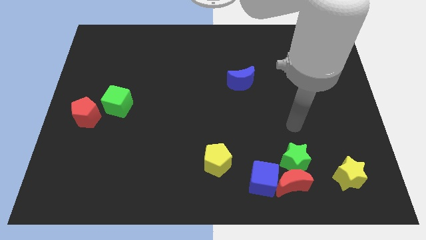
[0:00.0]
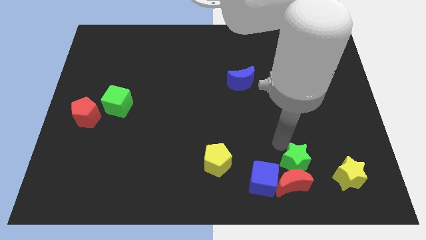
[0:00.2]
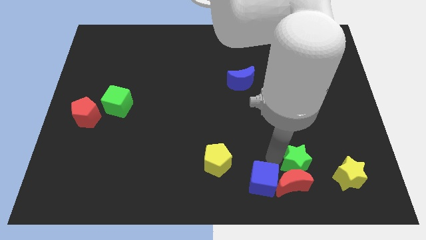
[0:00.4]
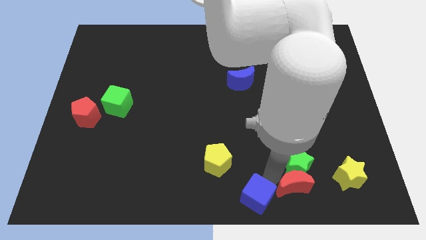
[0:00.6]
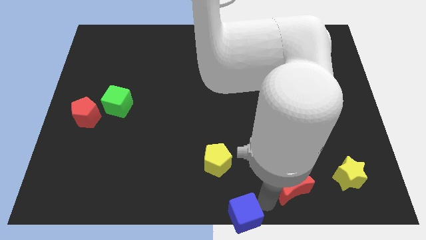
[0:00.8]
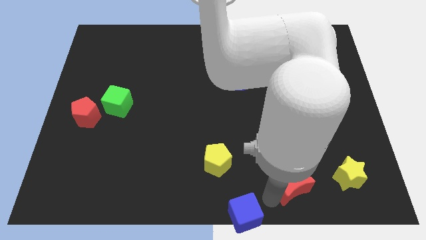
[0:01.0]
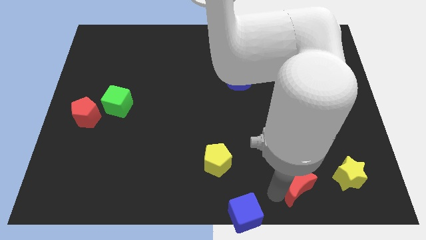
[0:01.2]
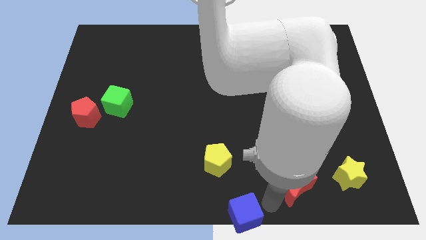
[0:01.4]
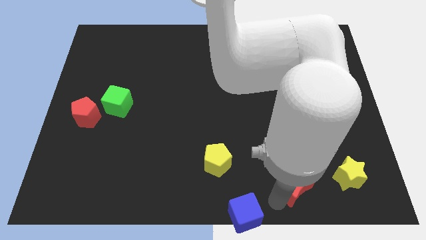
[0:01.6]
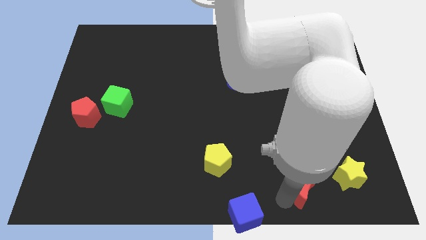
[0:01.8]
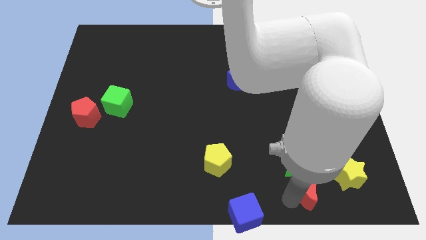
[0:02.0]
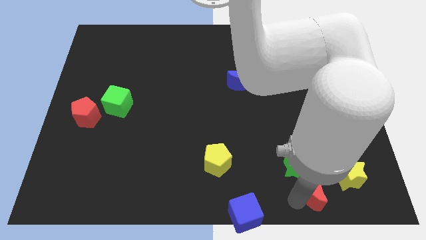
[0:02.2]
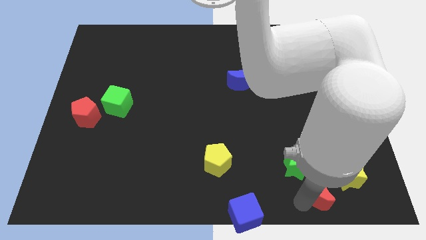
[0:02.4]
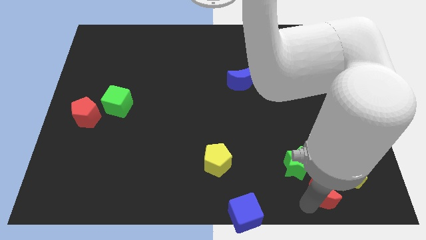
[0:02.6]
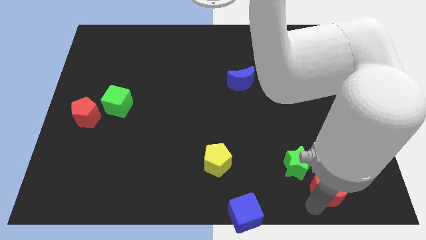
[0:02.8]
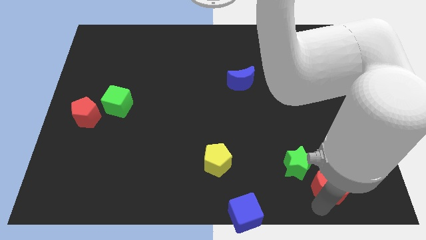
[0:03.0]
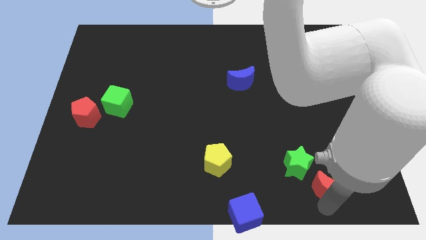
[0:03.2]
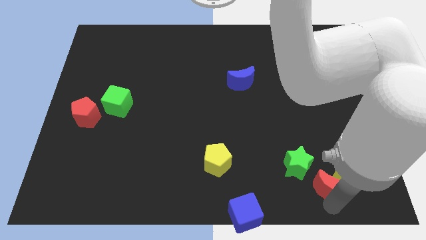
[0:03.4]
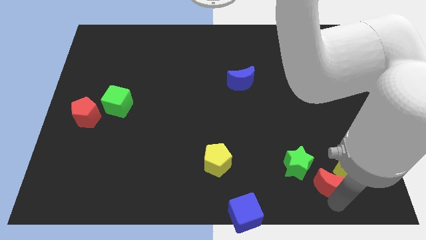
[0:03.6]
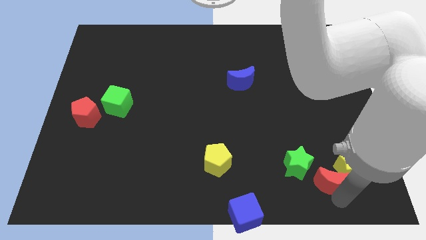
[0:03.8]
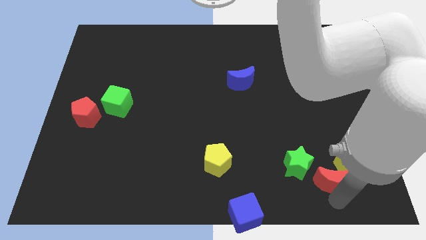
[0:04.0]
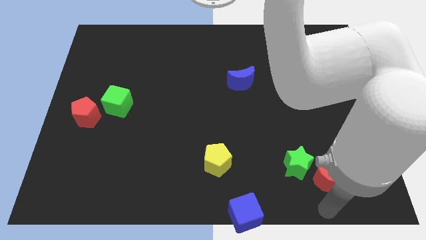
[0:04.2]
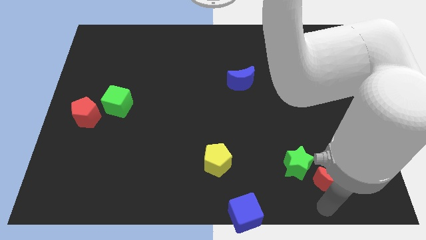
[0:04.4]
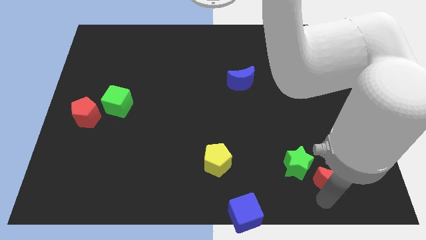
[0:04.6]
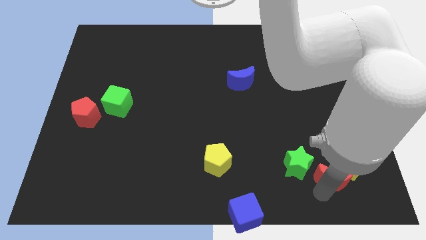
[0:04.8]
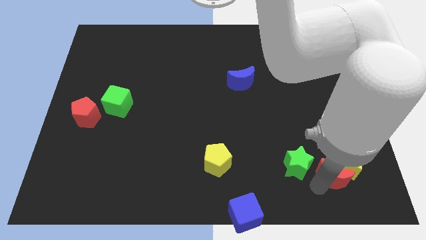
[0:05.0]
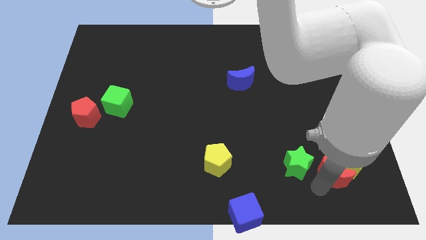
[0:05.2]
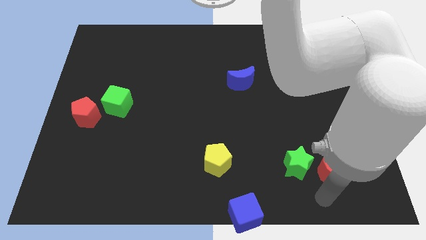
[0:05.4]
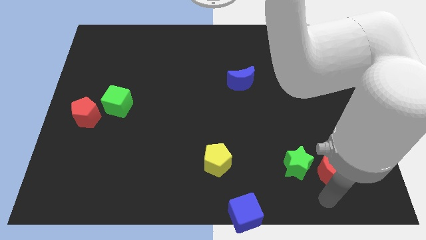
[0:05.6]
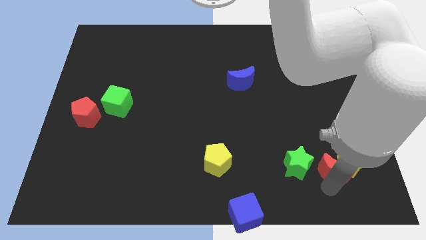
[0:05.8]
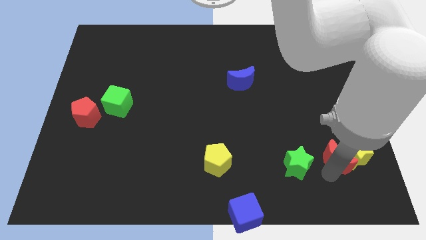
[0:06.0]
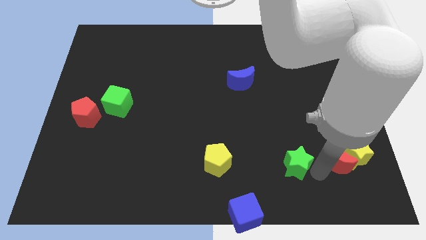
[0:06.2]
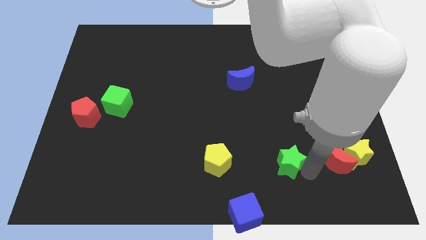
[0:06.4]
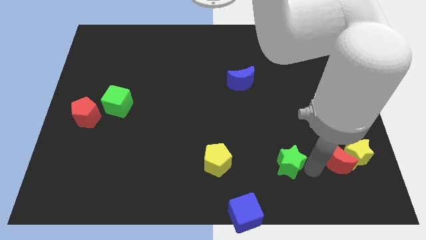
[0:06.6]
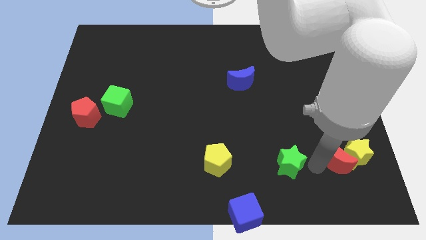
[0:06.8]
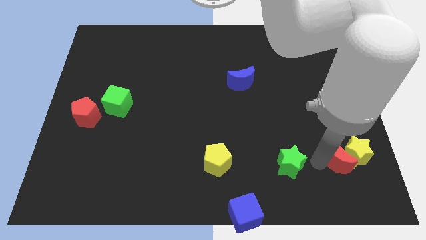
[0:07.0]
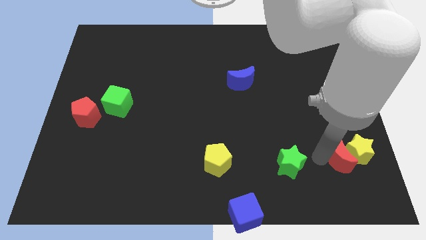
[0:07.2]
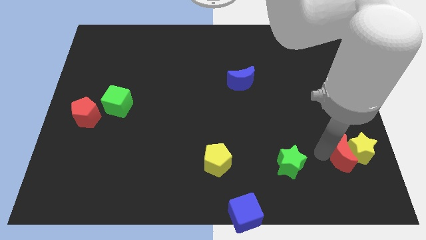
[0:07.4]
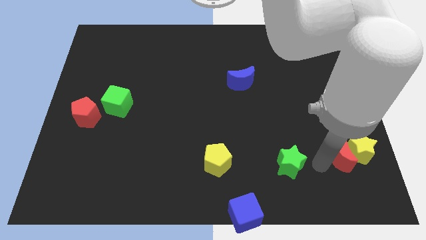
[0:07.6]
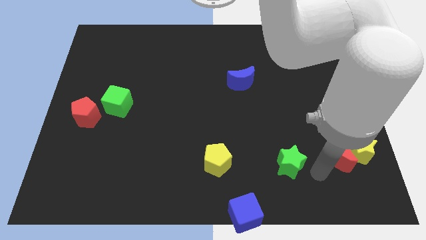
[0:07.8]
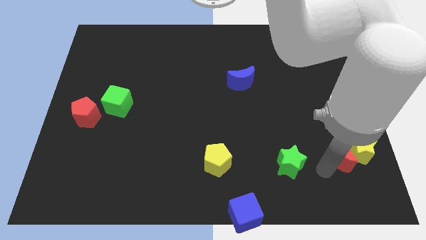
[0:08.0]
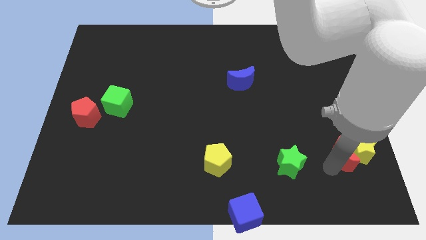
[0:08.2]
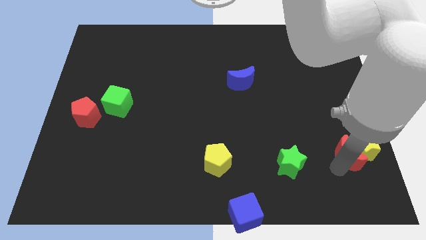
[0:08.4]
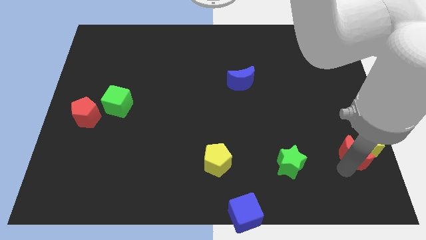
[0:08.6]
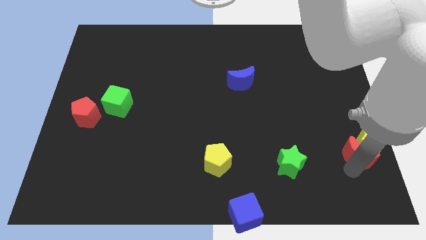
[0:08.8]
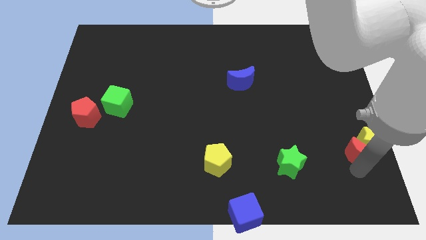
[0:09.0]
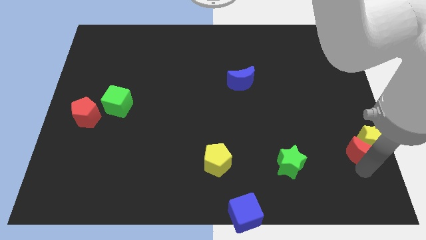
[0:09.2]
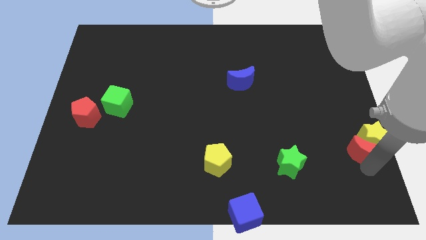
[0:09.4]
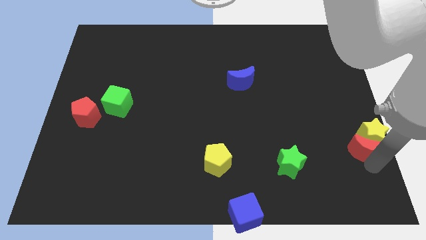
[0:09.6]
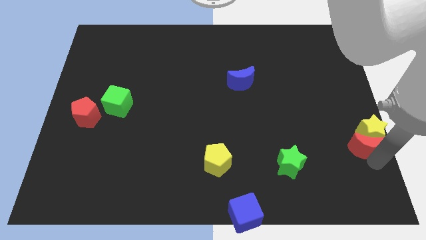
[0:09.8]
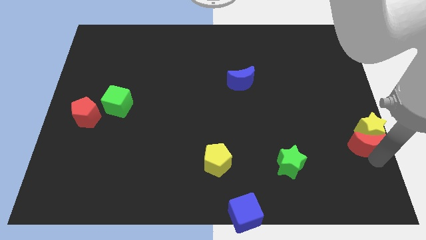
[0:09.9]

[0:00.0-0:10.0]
put the red moon to the right side
